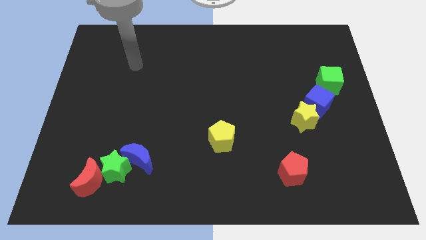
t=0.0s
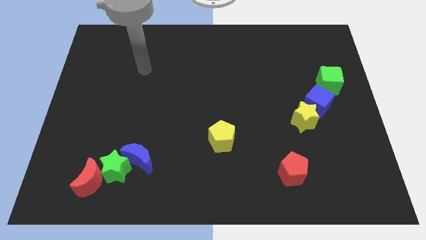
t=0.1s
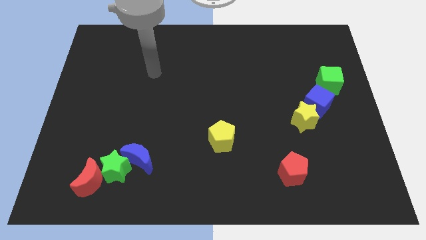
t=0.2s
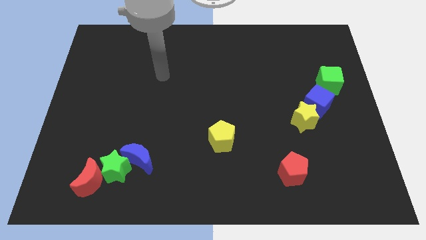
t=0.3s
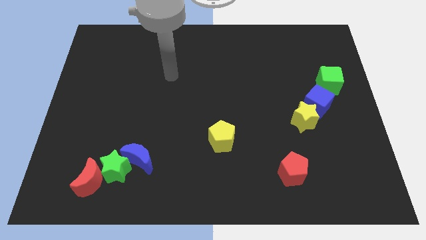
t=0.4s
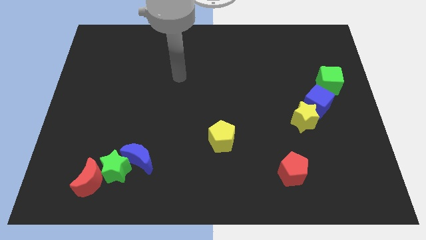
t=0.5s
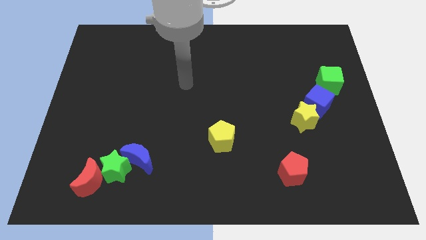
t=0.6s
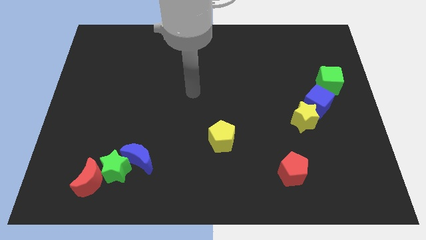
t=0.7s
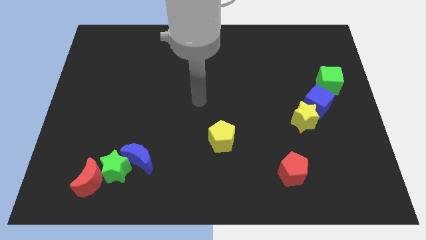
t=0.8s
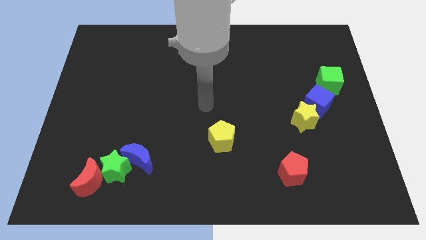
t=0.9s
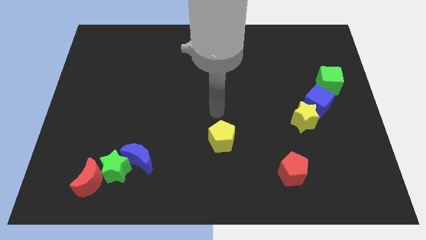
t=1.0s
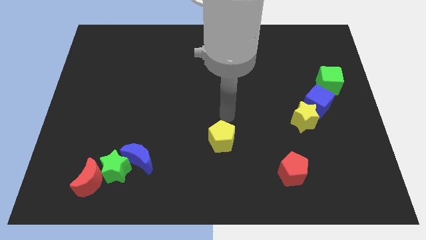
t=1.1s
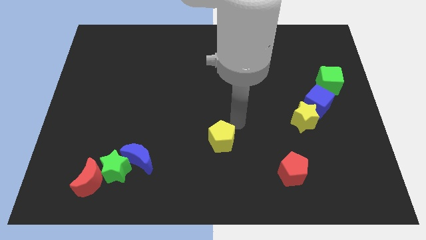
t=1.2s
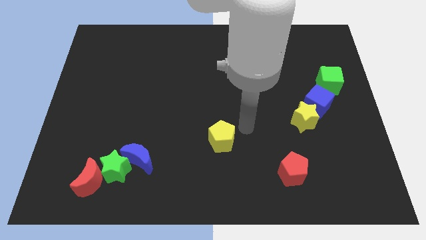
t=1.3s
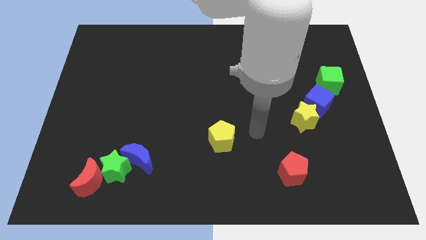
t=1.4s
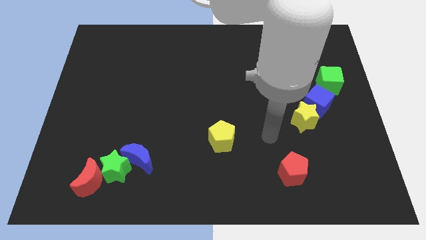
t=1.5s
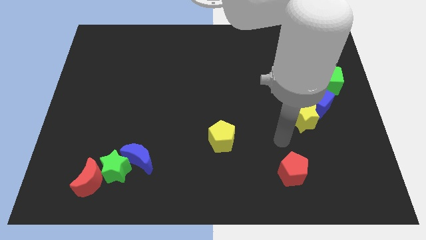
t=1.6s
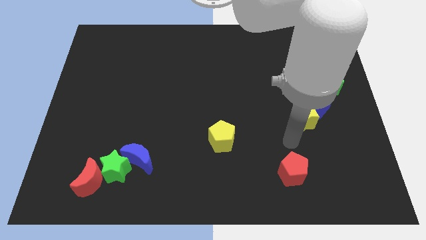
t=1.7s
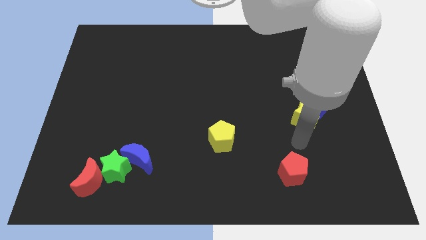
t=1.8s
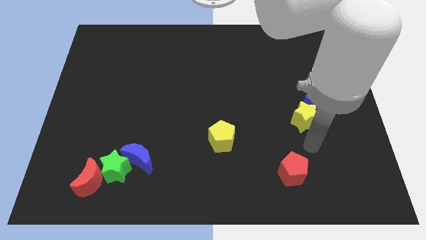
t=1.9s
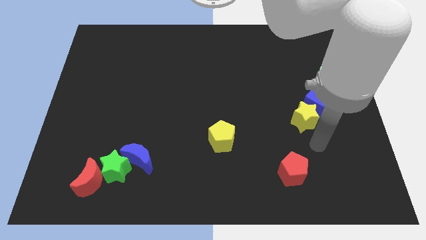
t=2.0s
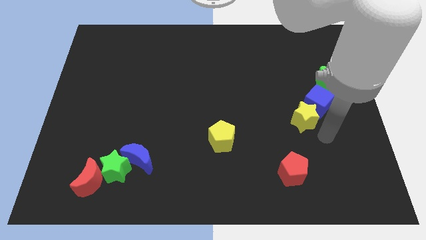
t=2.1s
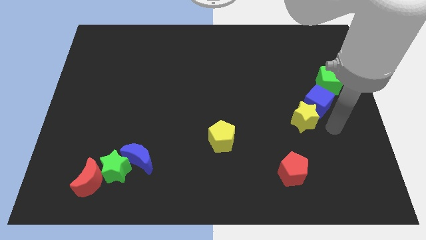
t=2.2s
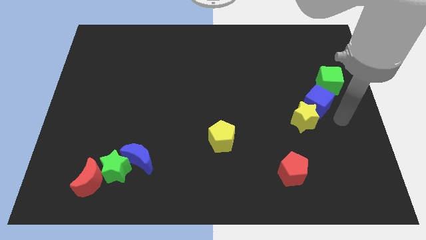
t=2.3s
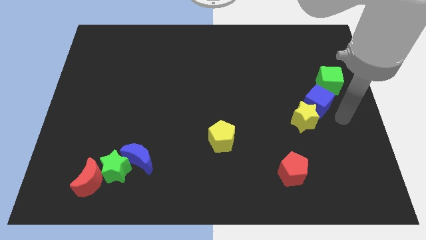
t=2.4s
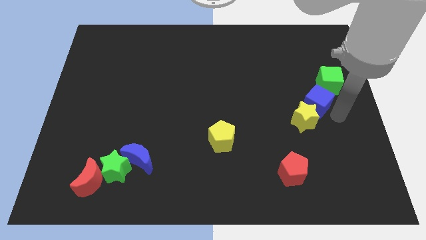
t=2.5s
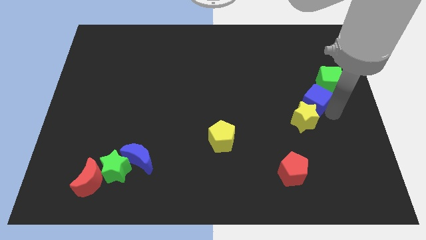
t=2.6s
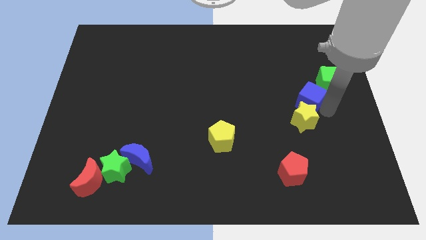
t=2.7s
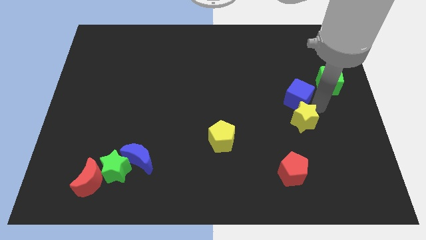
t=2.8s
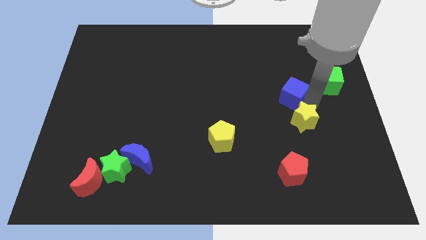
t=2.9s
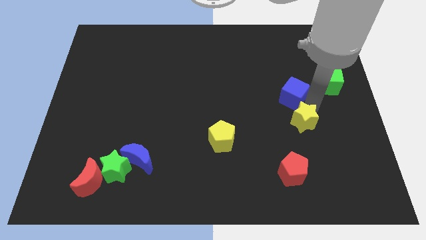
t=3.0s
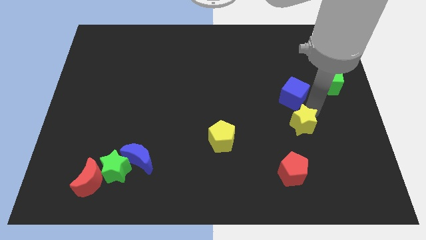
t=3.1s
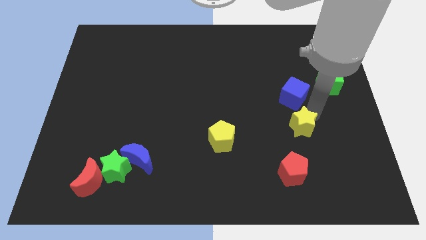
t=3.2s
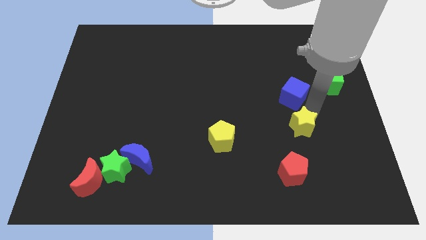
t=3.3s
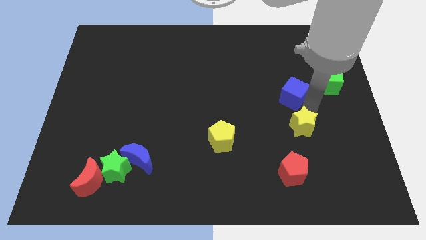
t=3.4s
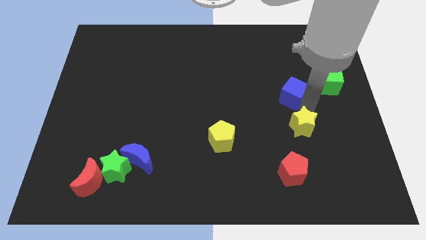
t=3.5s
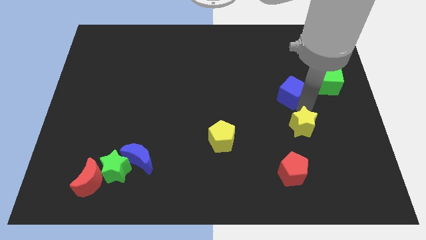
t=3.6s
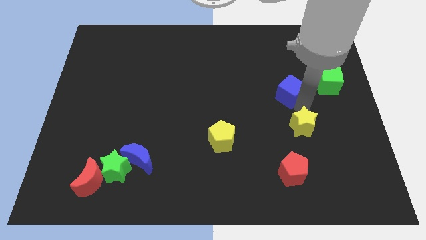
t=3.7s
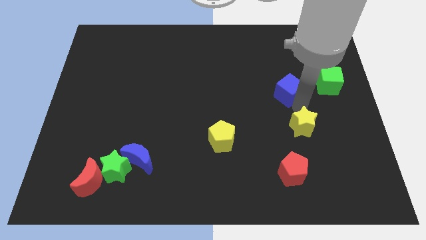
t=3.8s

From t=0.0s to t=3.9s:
slide the blue cube somewhat up and to the left diagonally

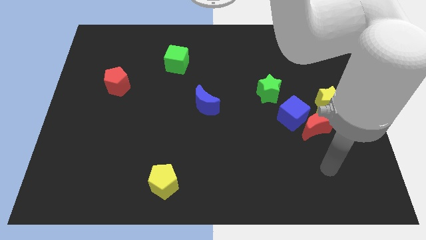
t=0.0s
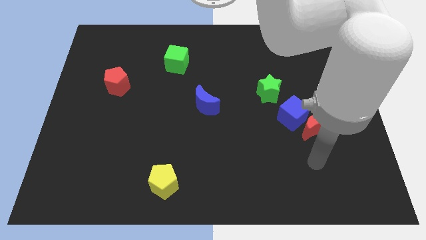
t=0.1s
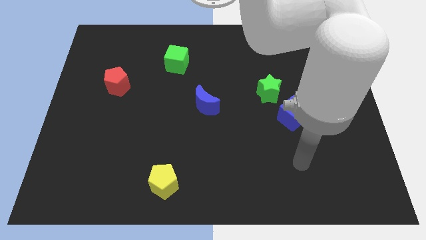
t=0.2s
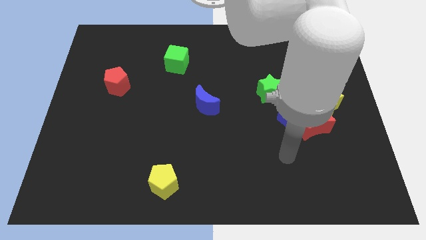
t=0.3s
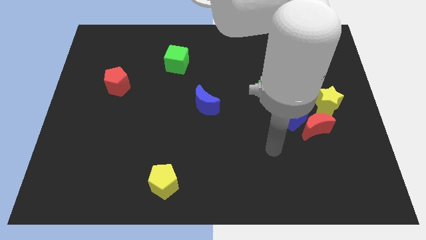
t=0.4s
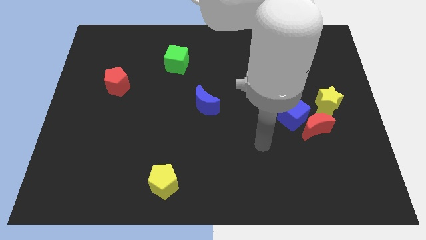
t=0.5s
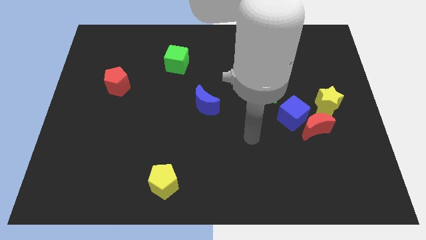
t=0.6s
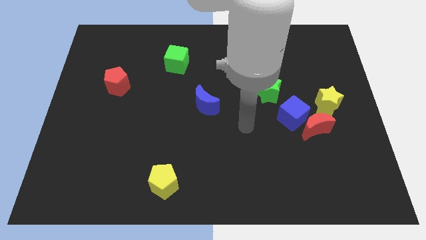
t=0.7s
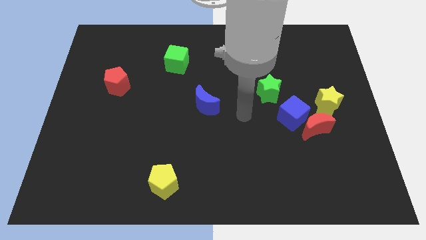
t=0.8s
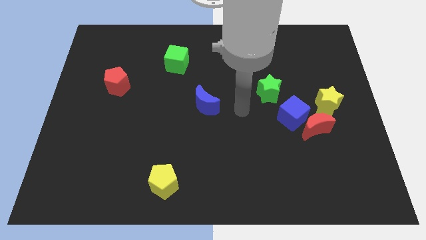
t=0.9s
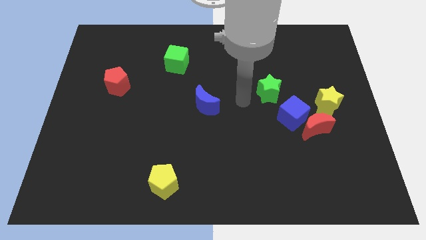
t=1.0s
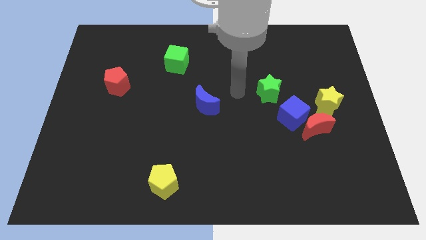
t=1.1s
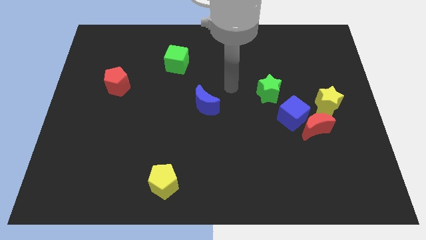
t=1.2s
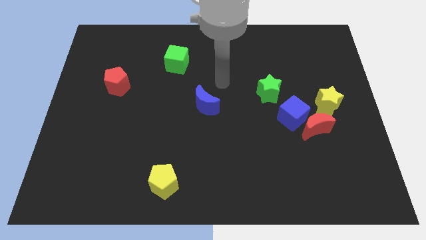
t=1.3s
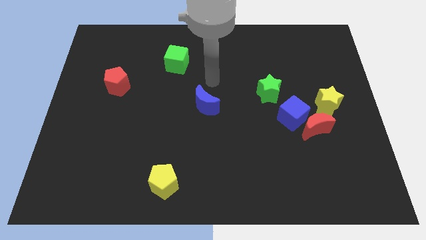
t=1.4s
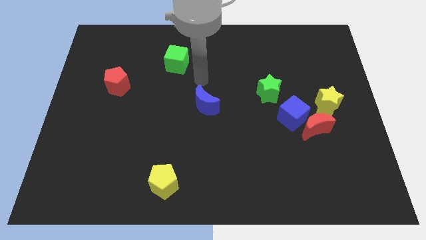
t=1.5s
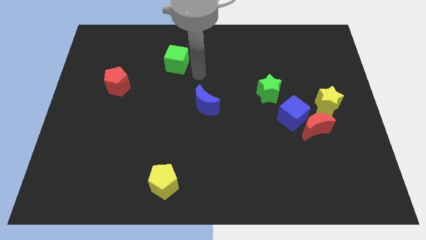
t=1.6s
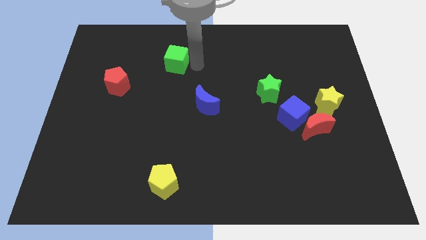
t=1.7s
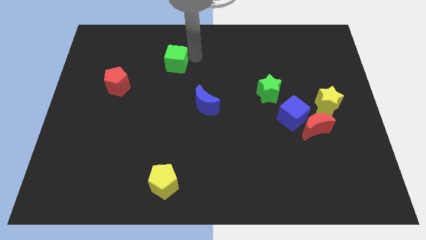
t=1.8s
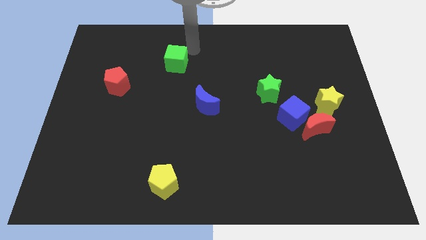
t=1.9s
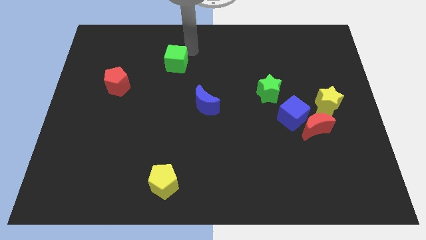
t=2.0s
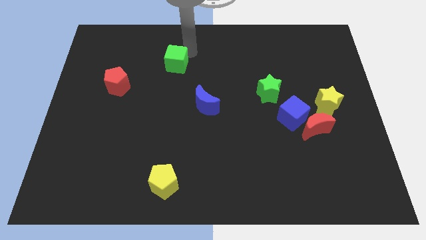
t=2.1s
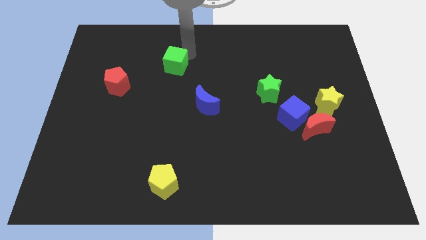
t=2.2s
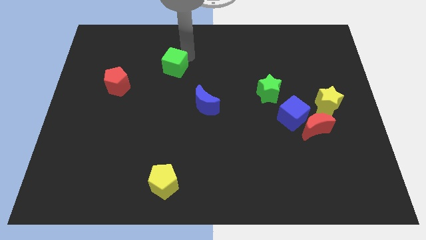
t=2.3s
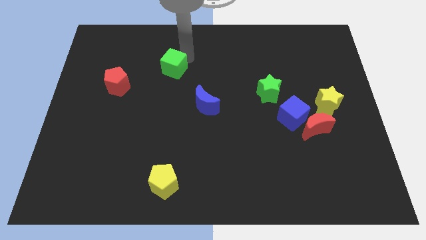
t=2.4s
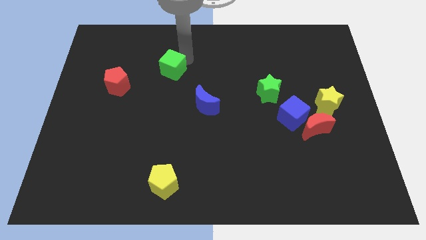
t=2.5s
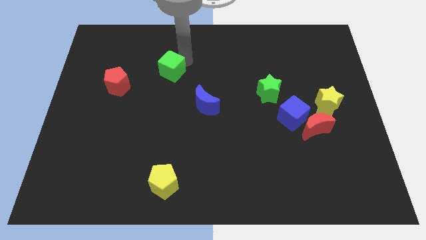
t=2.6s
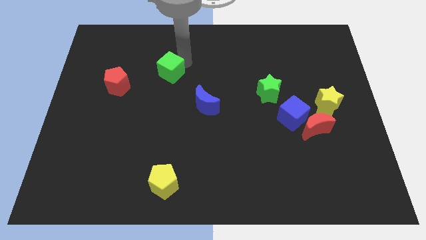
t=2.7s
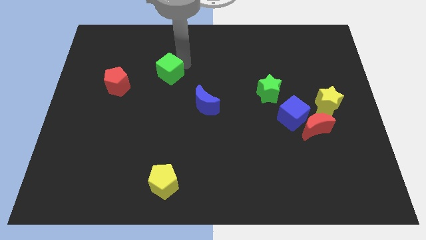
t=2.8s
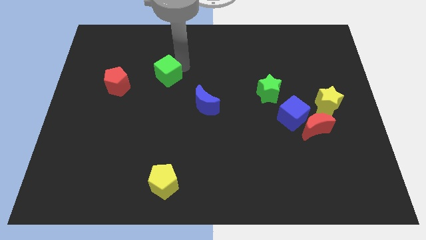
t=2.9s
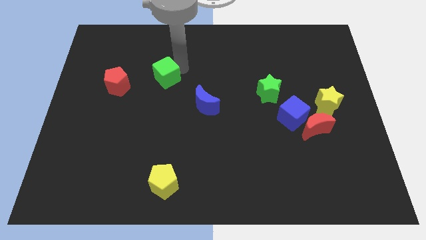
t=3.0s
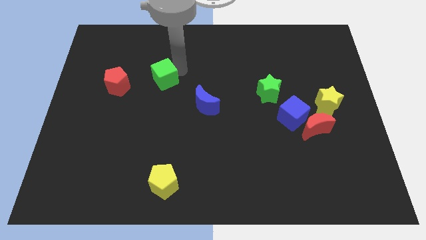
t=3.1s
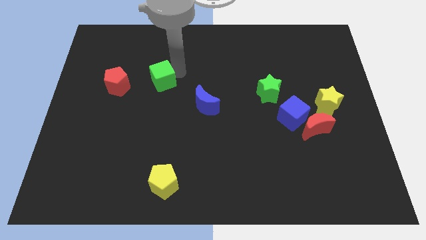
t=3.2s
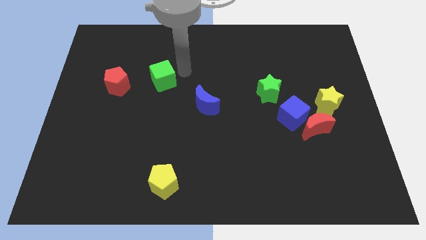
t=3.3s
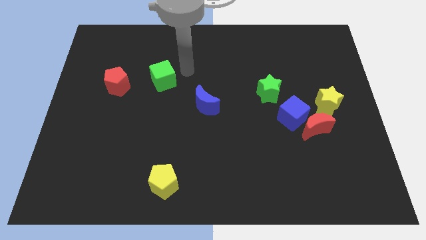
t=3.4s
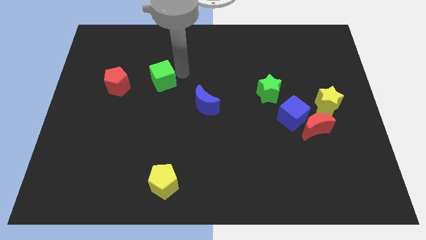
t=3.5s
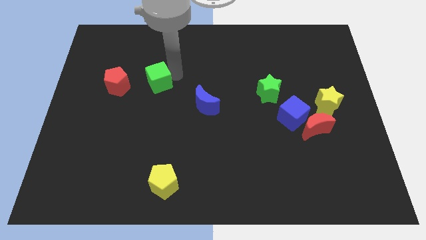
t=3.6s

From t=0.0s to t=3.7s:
move the green cube slightly diagonally down and left

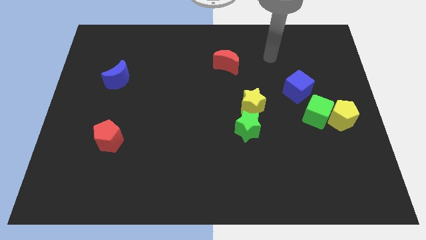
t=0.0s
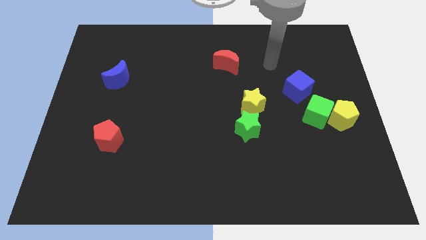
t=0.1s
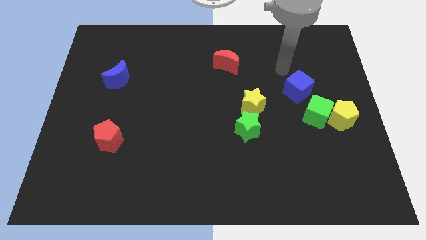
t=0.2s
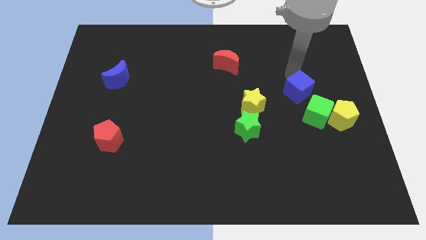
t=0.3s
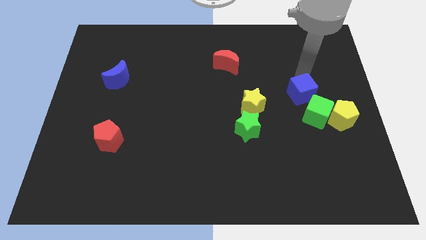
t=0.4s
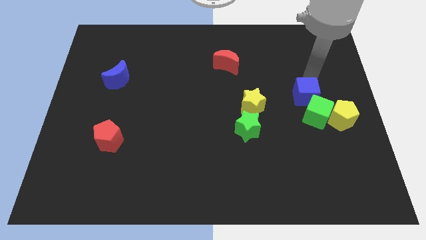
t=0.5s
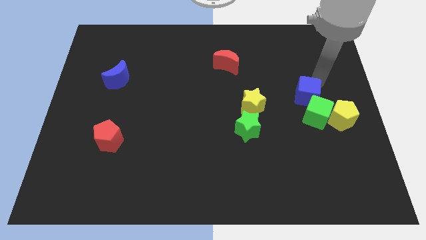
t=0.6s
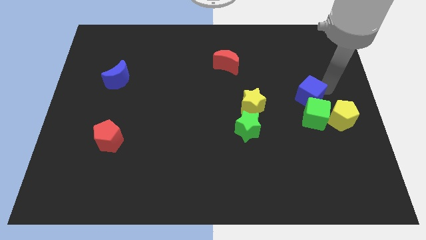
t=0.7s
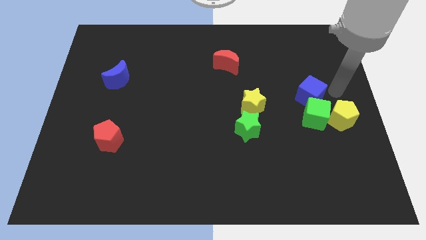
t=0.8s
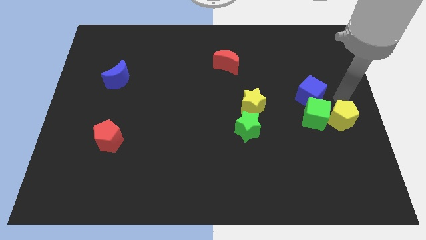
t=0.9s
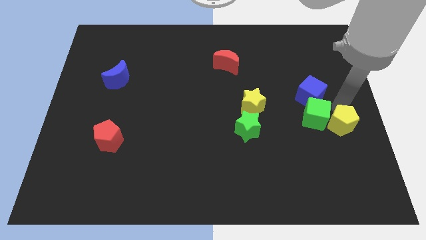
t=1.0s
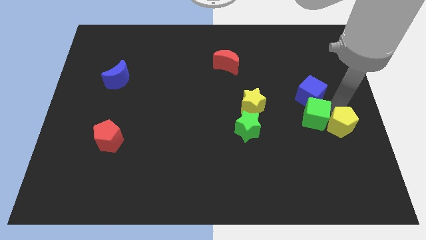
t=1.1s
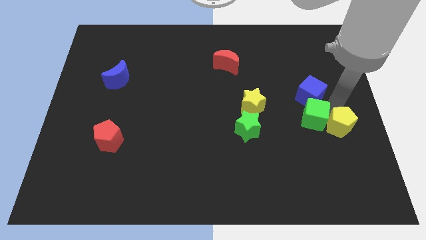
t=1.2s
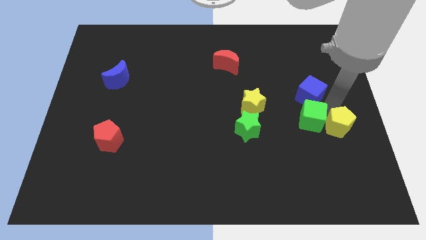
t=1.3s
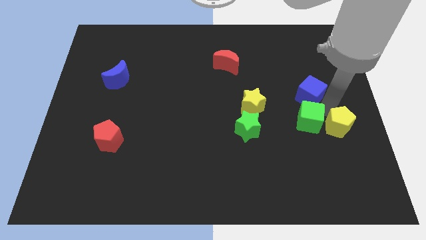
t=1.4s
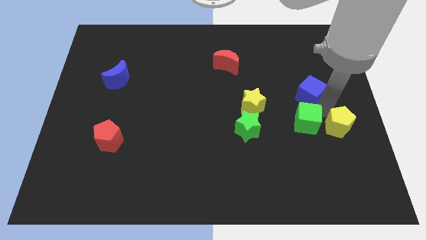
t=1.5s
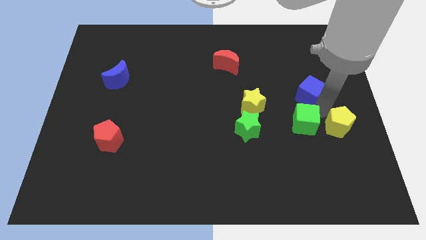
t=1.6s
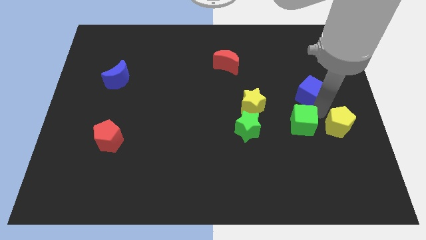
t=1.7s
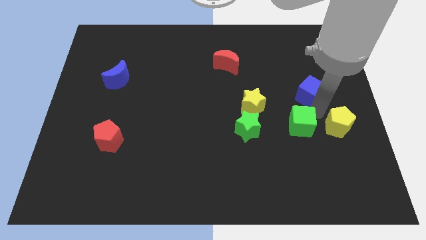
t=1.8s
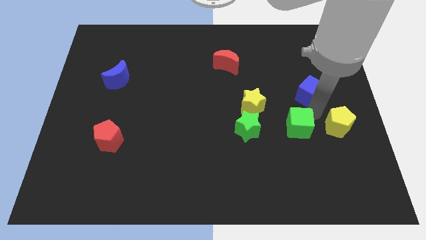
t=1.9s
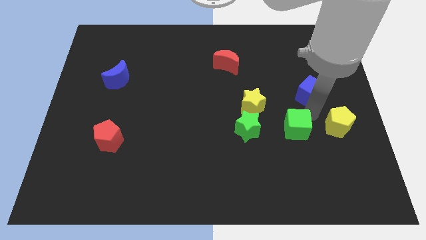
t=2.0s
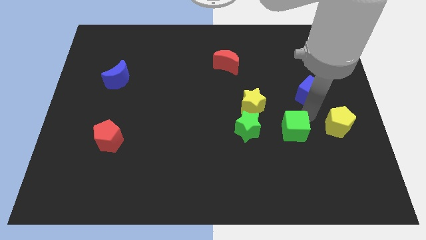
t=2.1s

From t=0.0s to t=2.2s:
move the green cube diagonally downwards and to the left slightly
